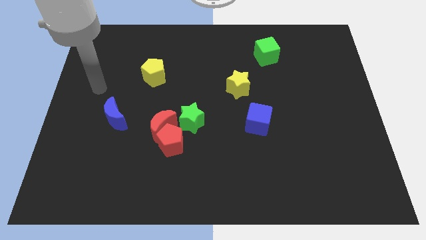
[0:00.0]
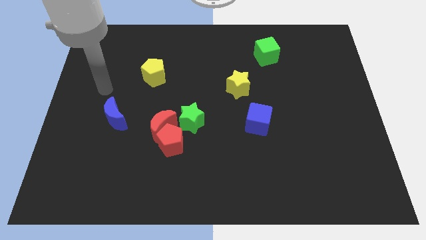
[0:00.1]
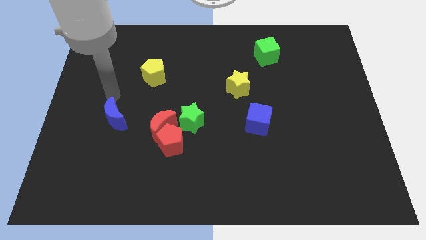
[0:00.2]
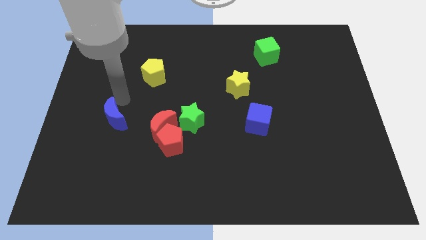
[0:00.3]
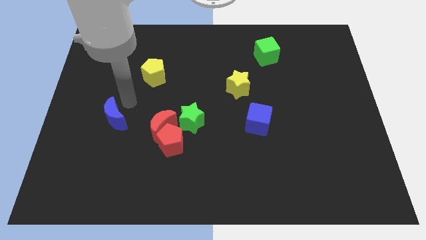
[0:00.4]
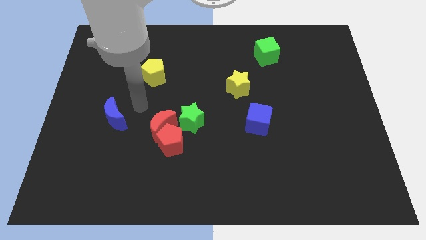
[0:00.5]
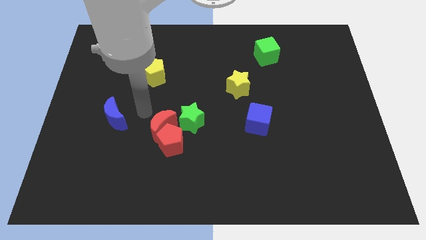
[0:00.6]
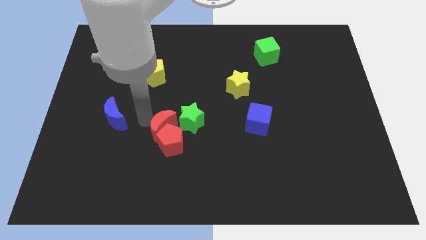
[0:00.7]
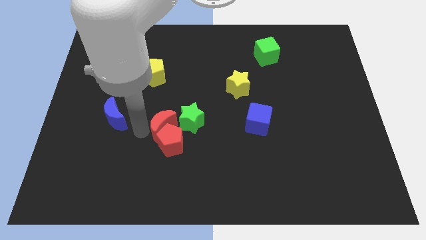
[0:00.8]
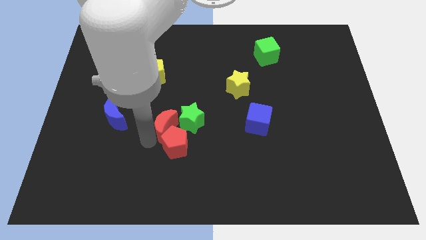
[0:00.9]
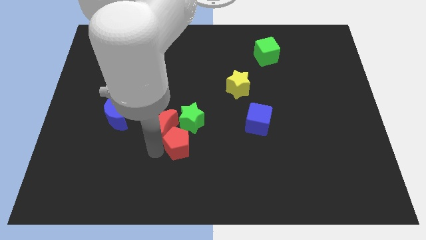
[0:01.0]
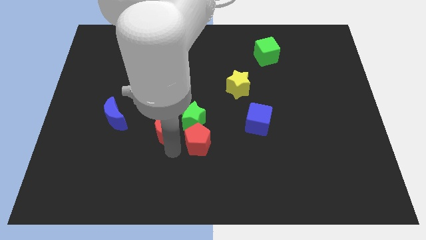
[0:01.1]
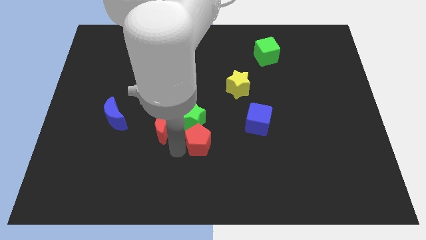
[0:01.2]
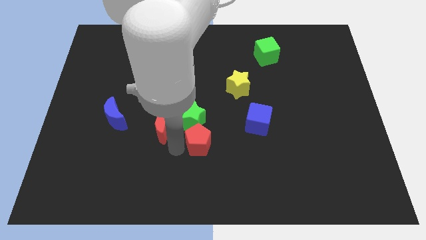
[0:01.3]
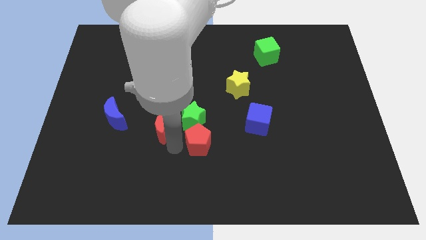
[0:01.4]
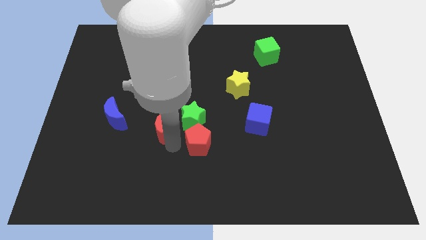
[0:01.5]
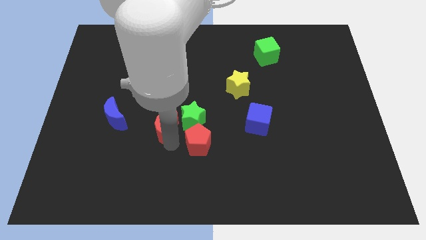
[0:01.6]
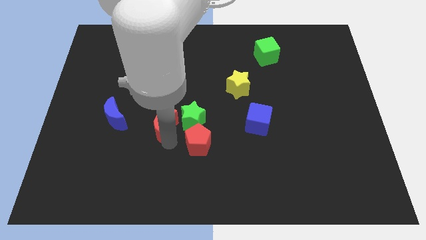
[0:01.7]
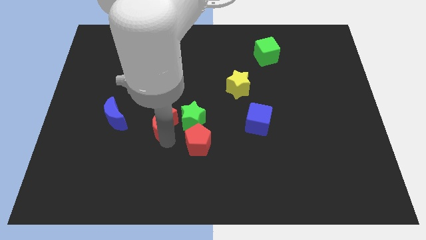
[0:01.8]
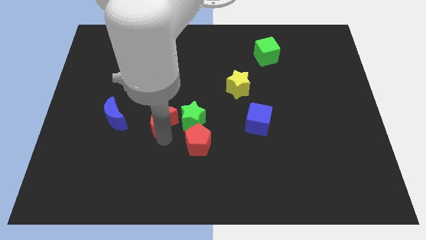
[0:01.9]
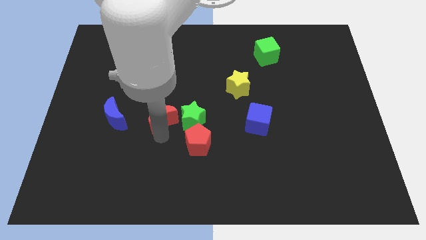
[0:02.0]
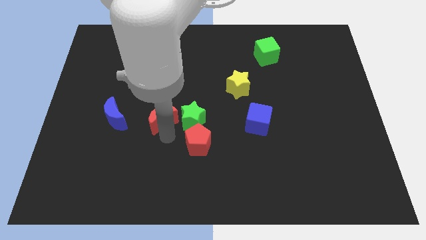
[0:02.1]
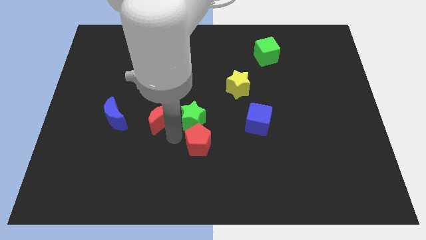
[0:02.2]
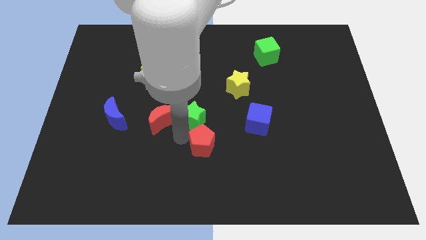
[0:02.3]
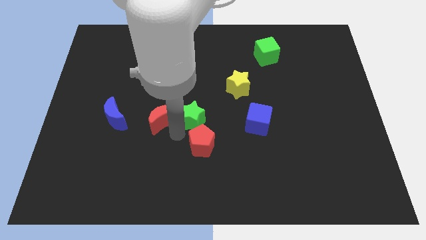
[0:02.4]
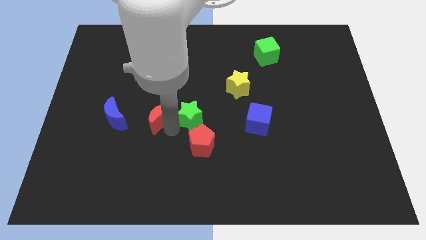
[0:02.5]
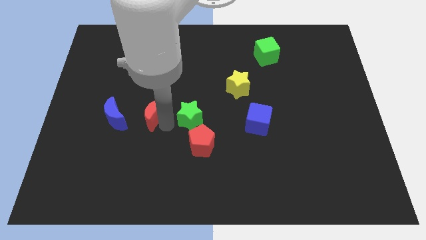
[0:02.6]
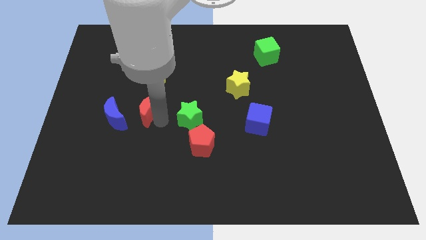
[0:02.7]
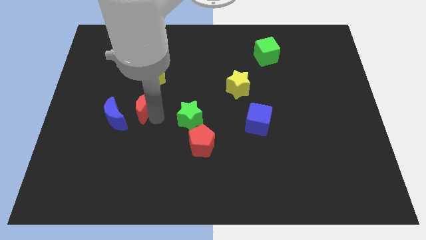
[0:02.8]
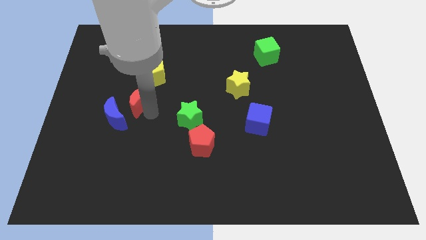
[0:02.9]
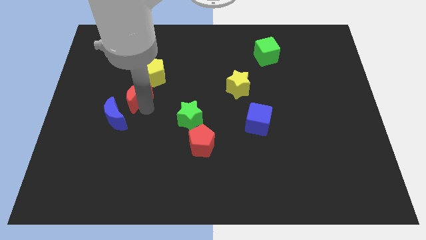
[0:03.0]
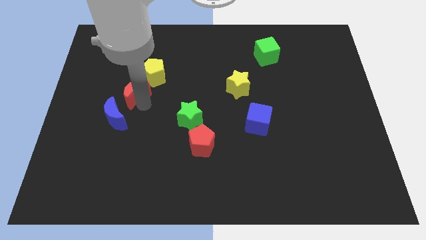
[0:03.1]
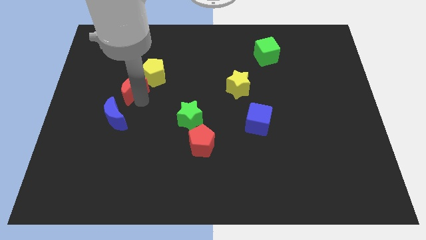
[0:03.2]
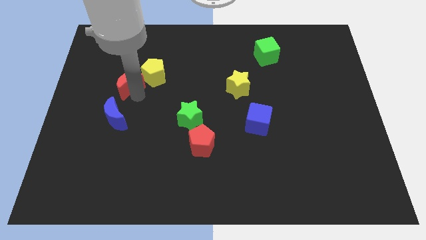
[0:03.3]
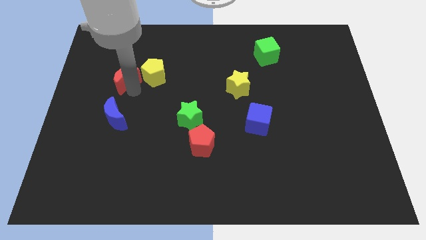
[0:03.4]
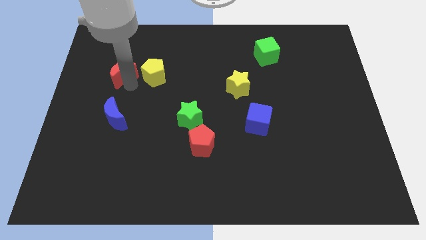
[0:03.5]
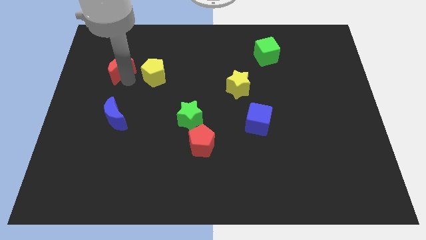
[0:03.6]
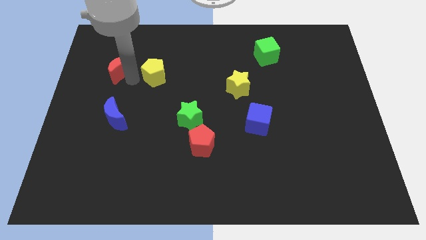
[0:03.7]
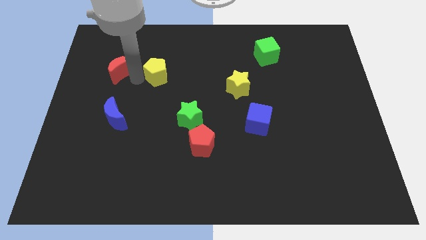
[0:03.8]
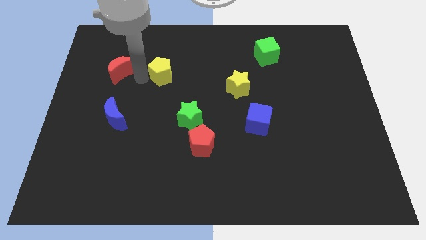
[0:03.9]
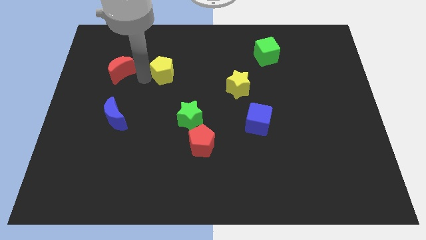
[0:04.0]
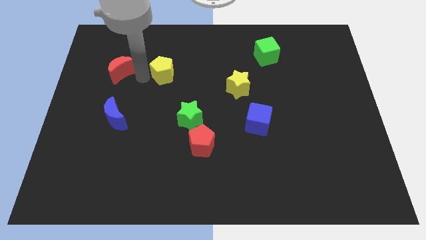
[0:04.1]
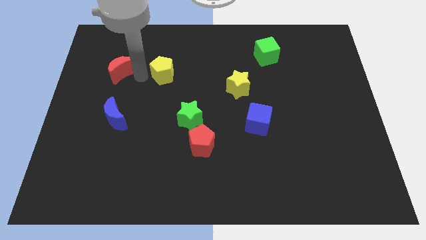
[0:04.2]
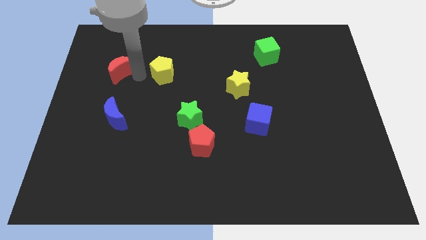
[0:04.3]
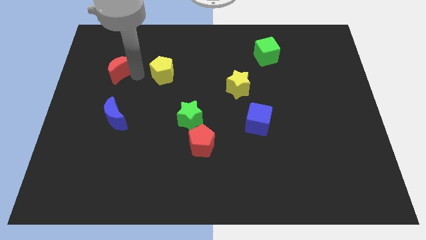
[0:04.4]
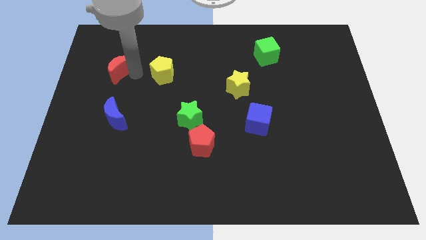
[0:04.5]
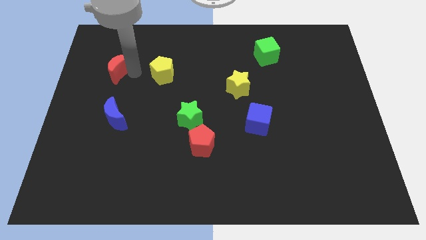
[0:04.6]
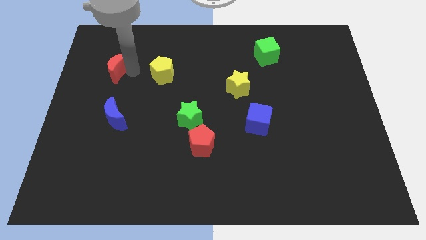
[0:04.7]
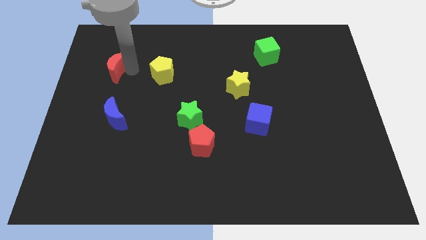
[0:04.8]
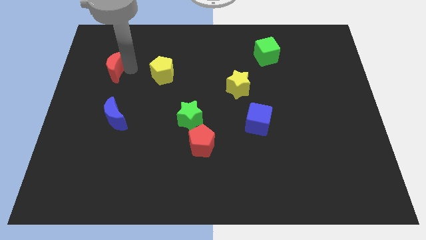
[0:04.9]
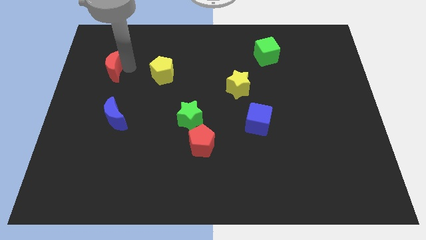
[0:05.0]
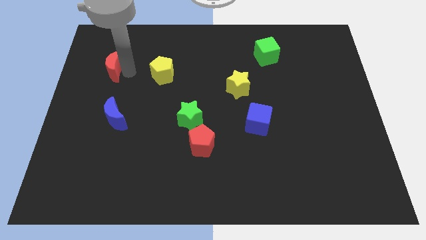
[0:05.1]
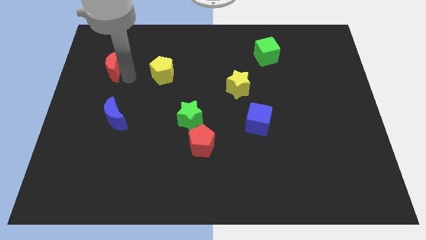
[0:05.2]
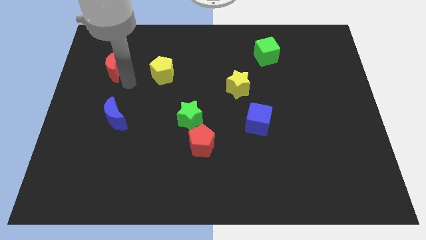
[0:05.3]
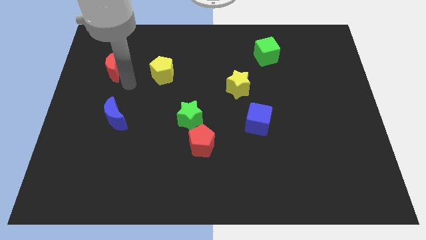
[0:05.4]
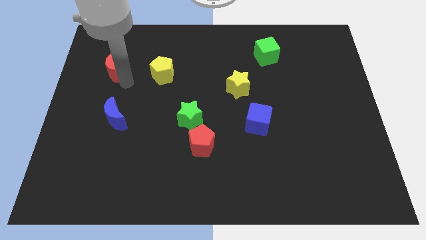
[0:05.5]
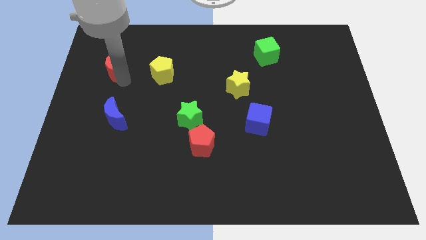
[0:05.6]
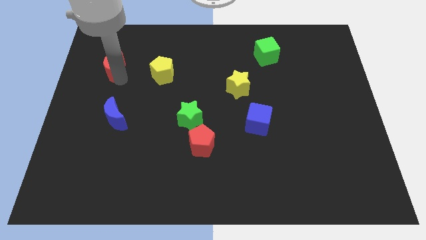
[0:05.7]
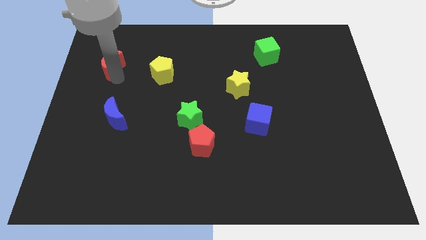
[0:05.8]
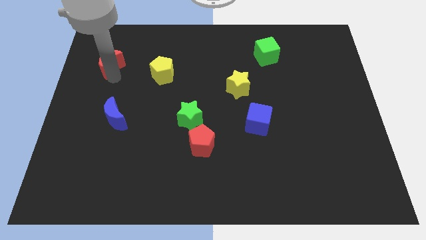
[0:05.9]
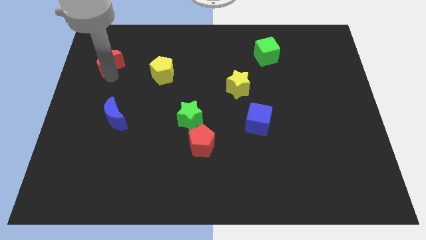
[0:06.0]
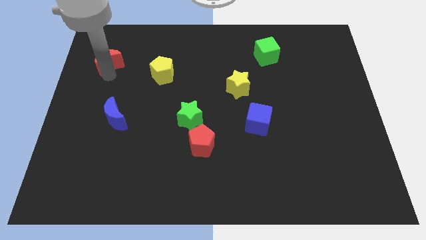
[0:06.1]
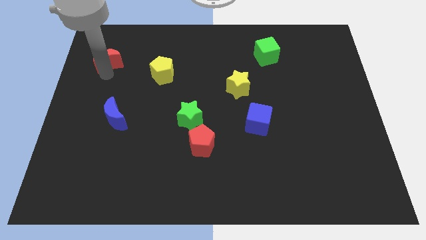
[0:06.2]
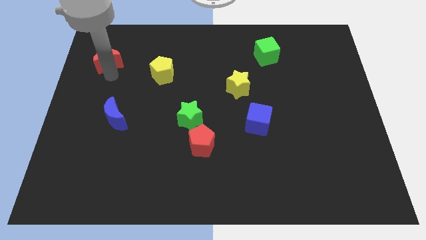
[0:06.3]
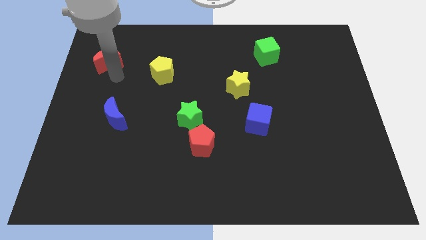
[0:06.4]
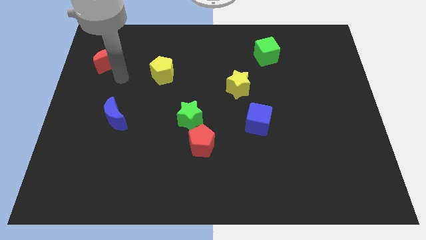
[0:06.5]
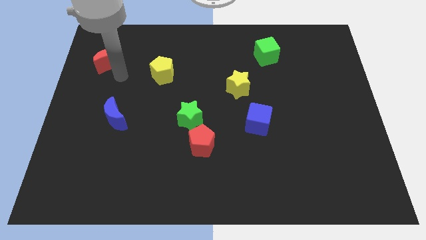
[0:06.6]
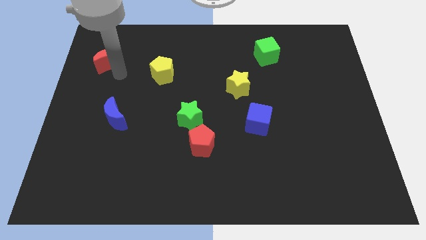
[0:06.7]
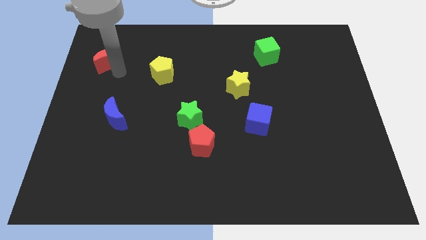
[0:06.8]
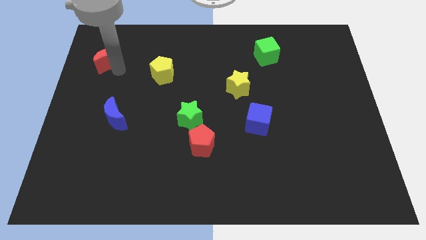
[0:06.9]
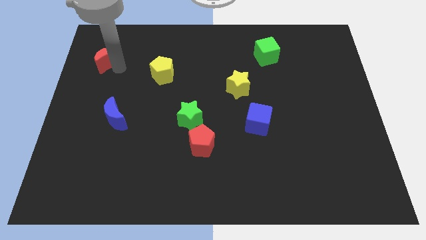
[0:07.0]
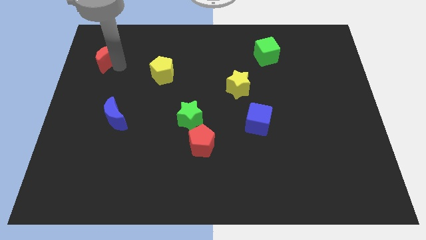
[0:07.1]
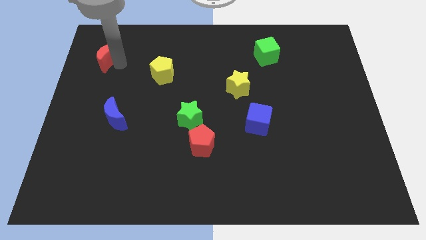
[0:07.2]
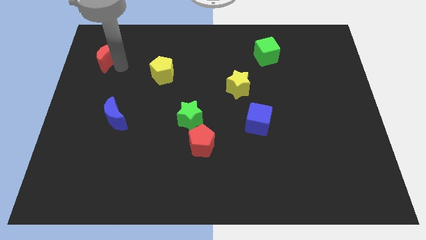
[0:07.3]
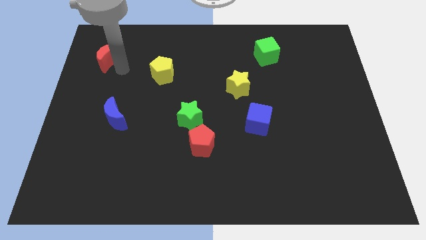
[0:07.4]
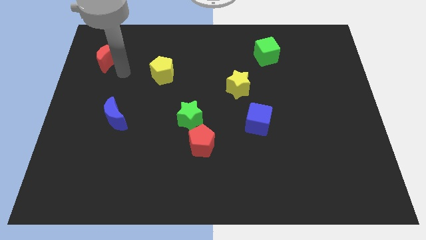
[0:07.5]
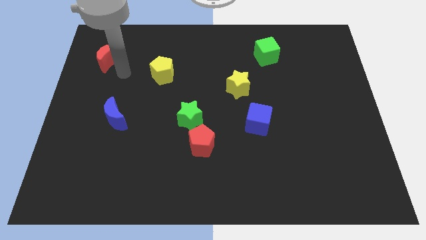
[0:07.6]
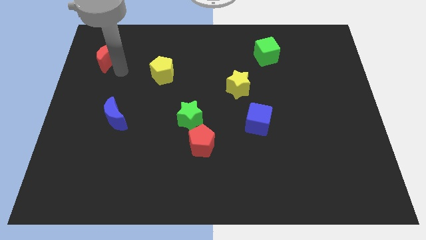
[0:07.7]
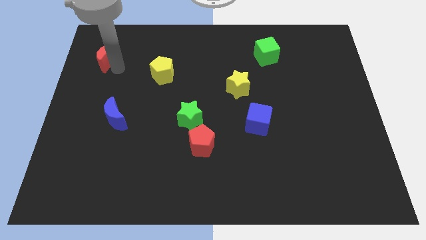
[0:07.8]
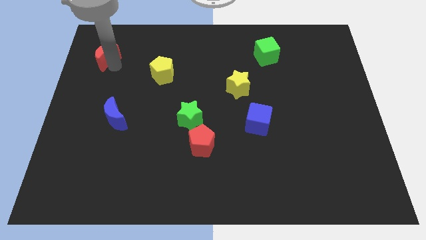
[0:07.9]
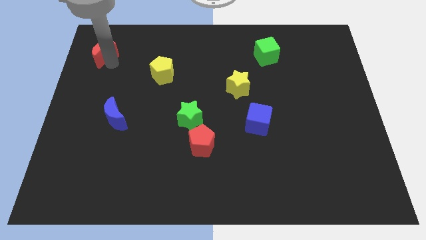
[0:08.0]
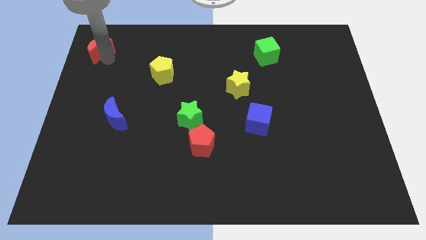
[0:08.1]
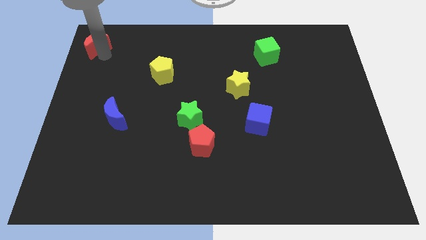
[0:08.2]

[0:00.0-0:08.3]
put the red moon to the top left of the board
